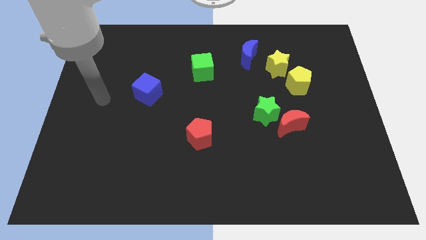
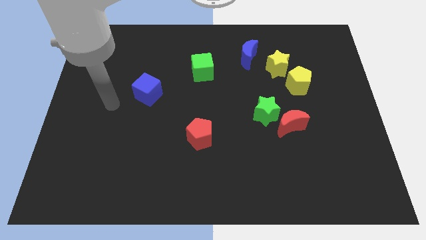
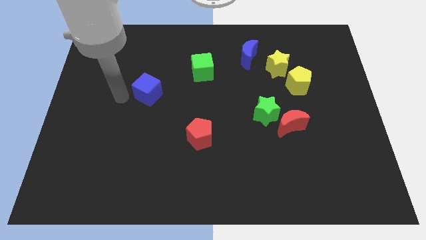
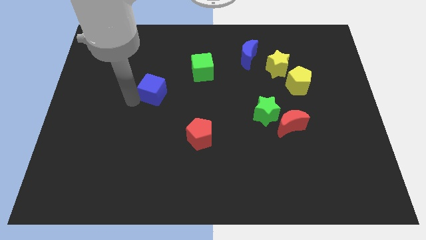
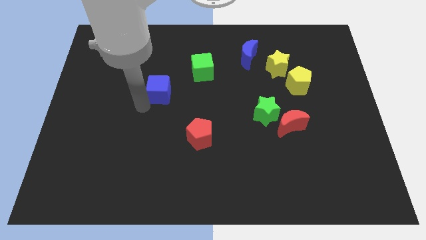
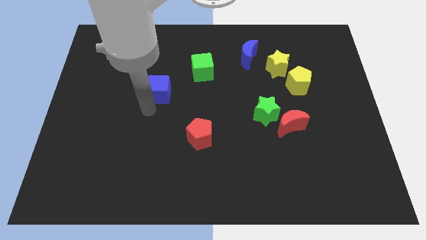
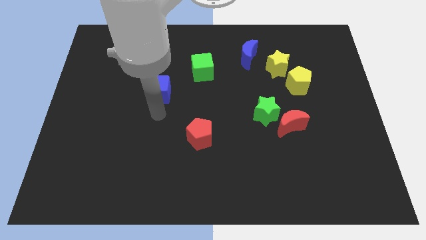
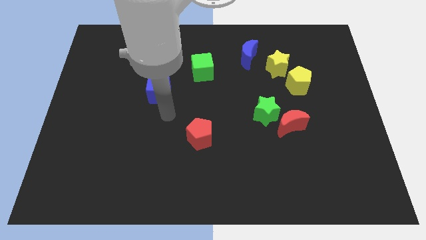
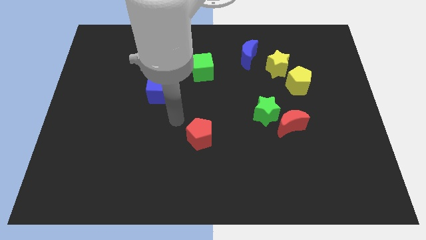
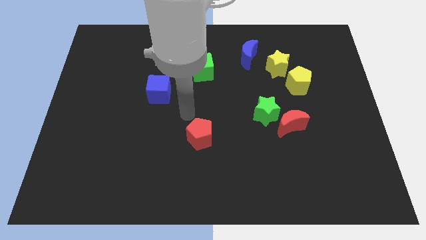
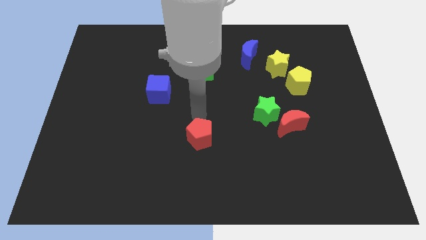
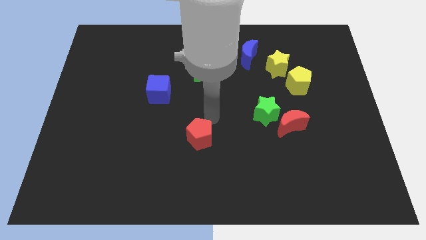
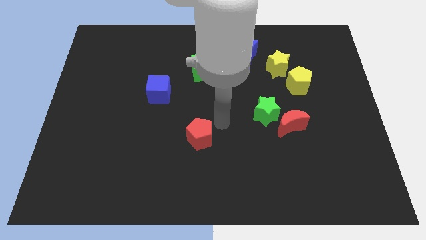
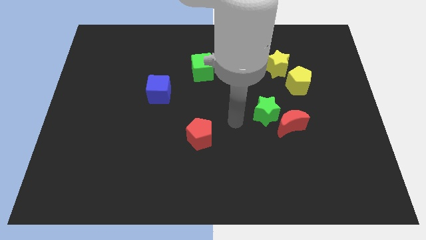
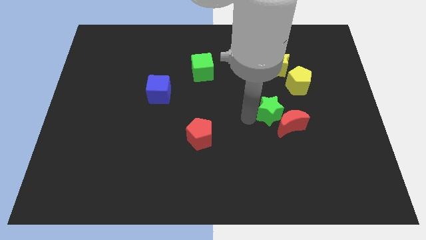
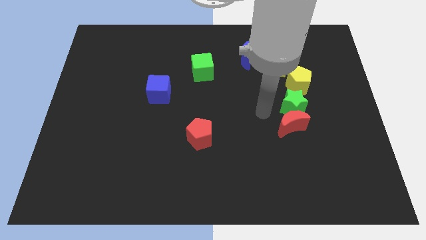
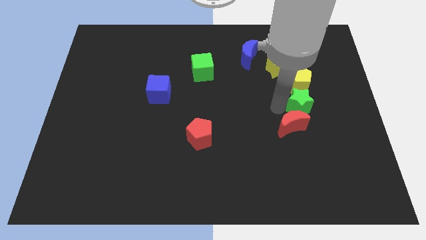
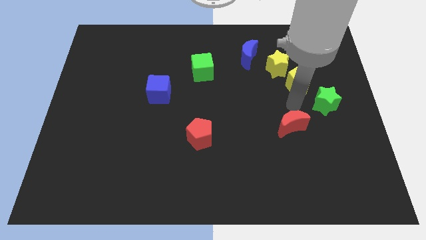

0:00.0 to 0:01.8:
separate the red moon from the green star

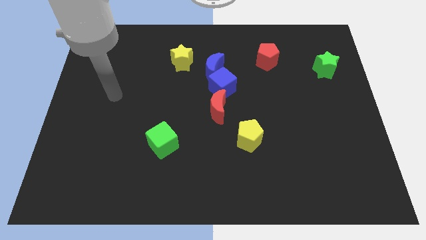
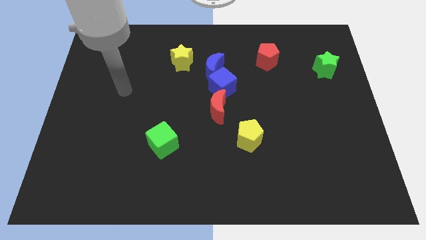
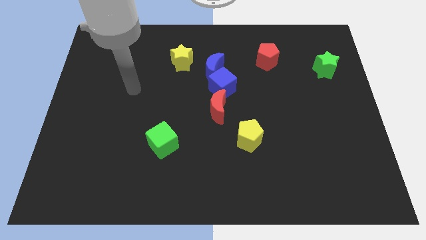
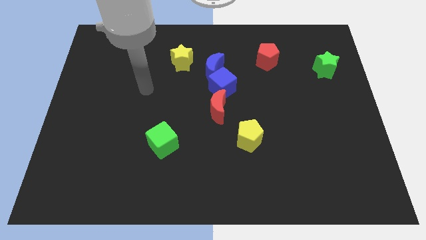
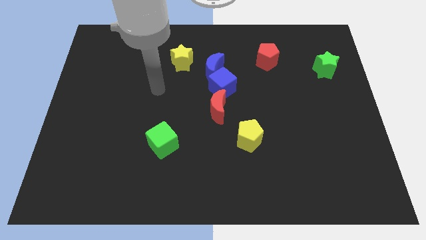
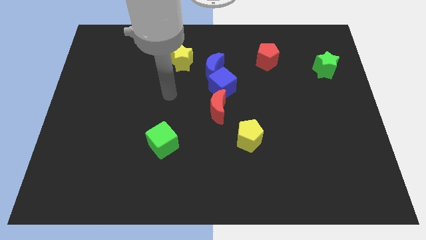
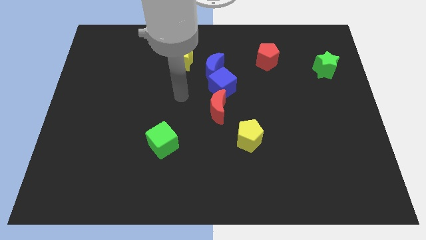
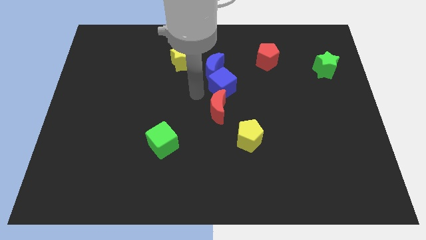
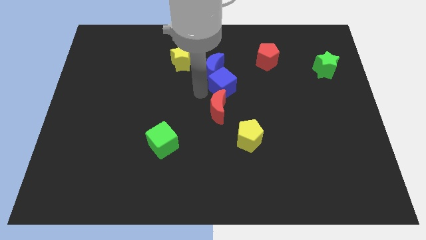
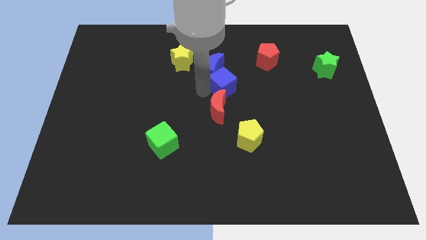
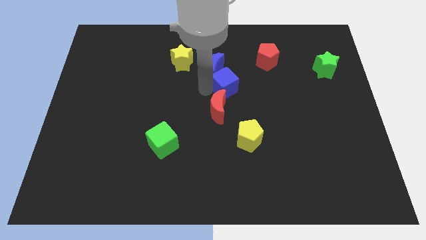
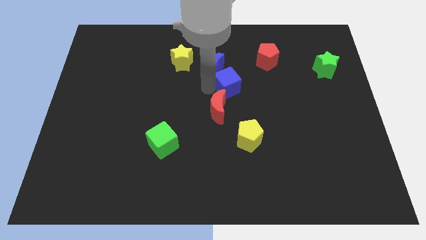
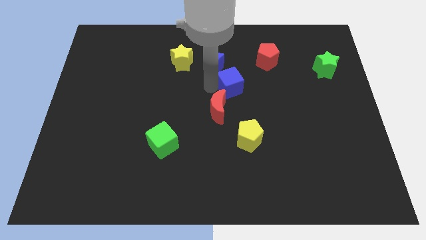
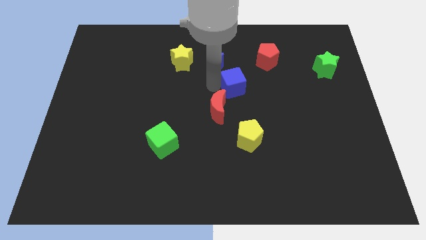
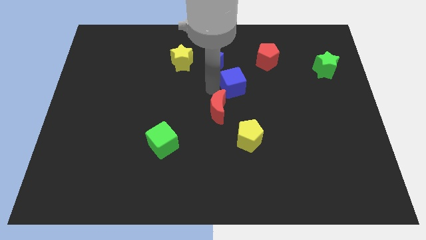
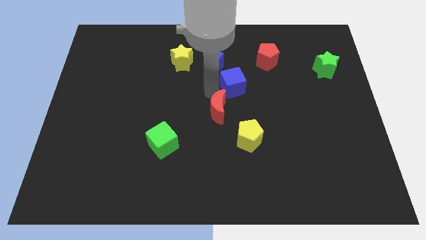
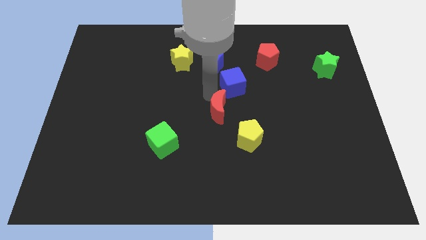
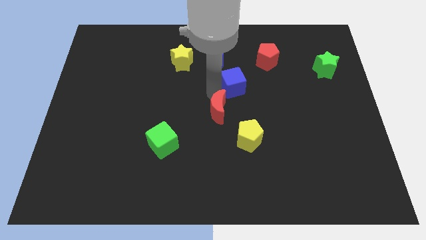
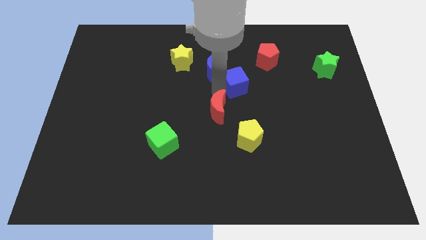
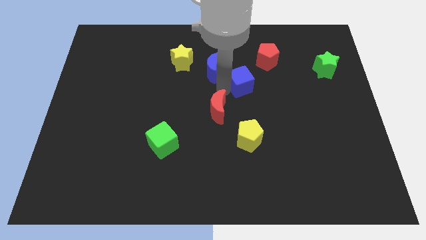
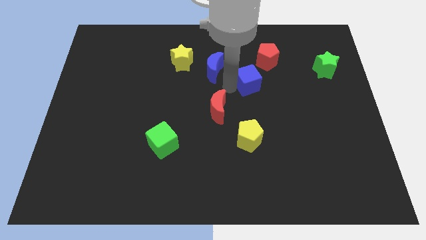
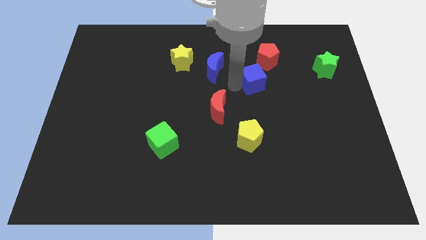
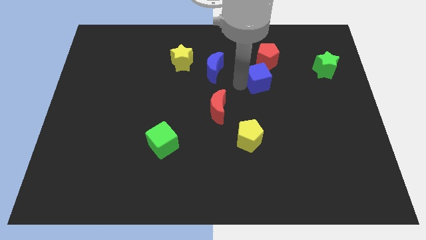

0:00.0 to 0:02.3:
move the blue cube away from the blue moon and red moon

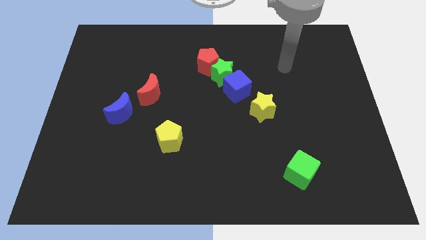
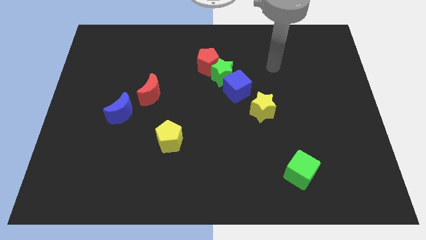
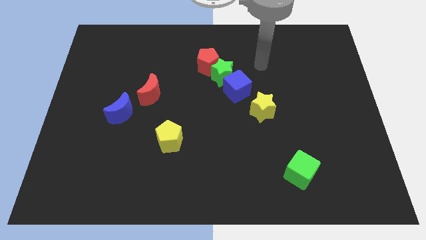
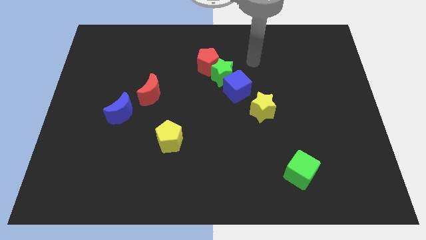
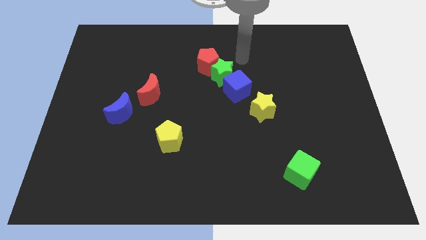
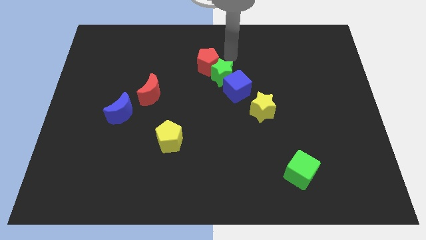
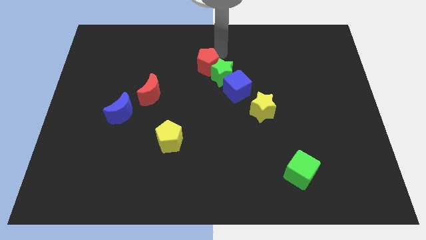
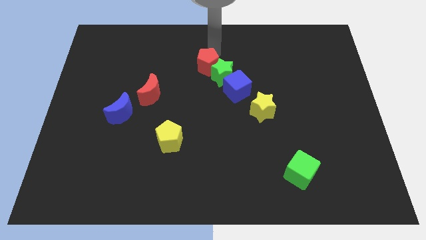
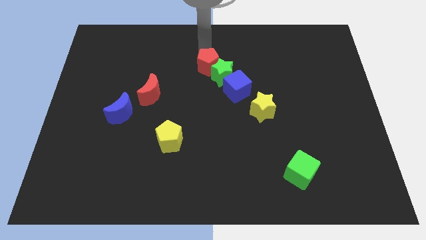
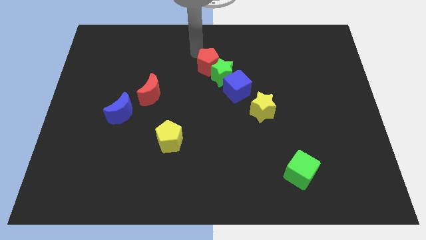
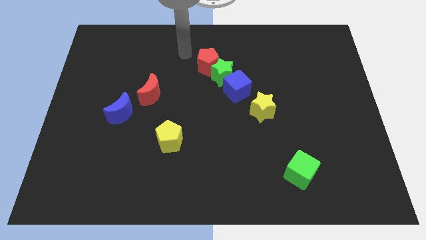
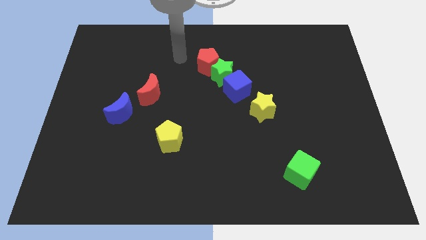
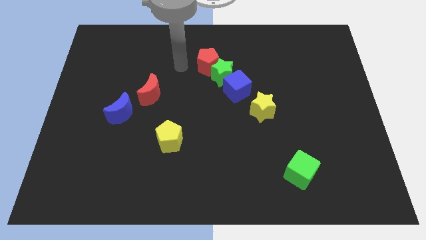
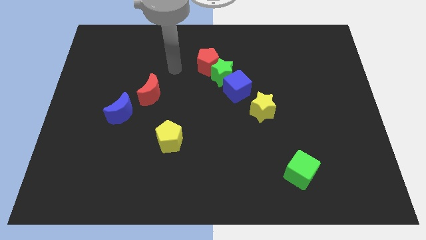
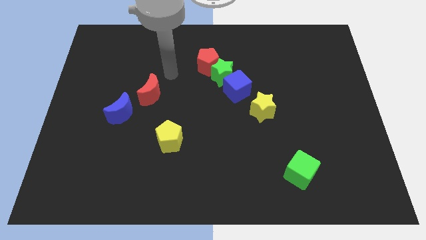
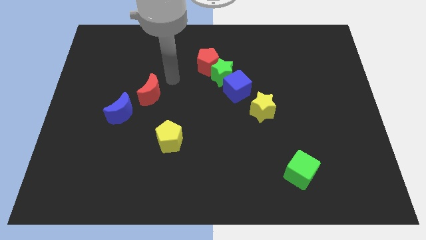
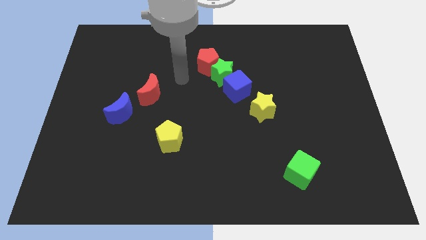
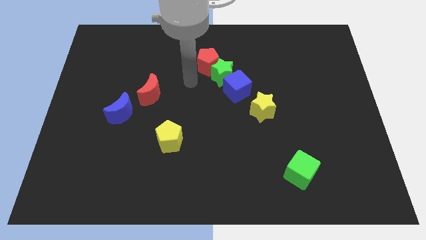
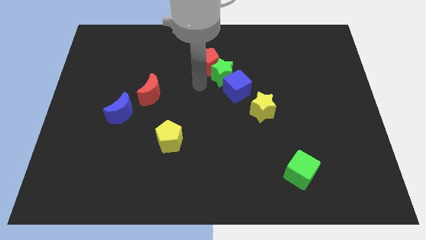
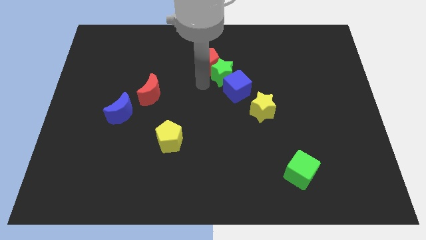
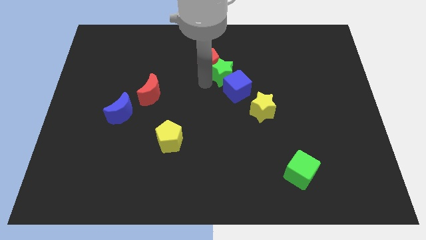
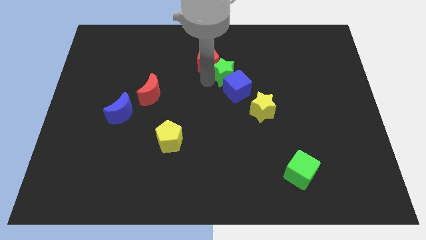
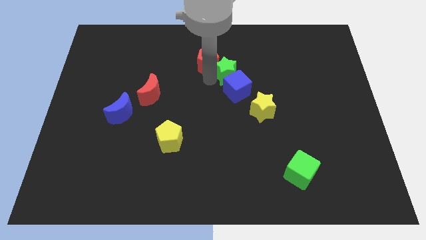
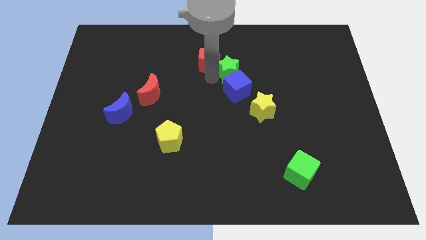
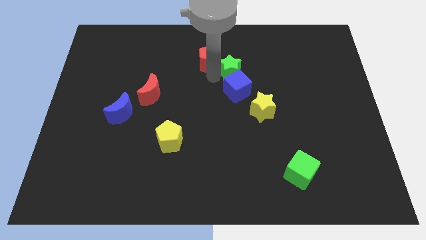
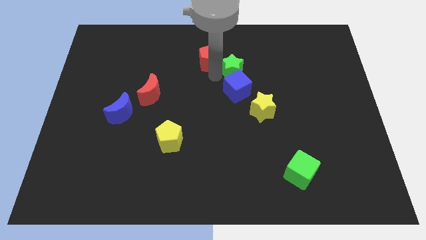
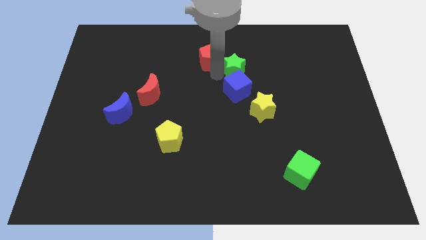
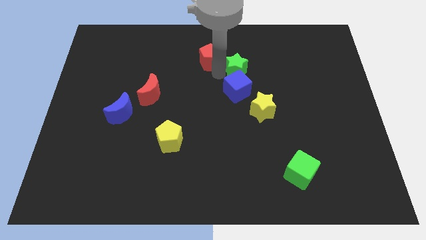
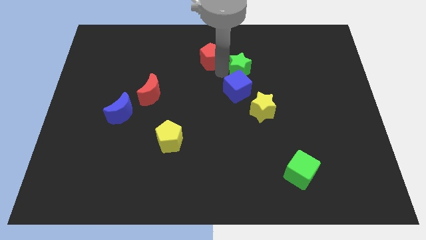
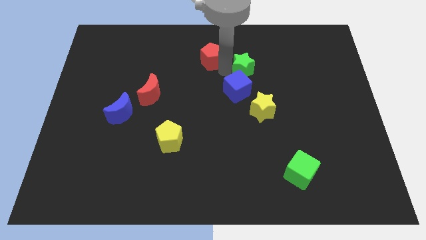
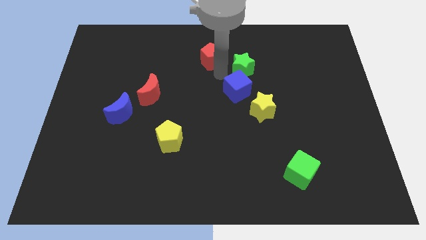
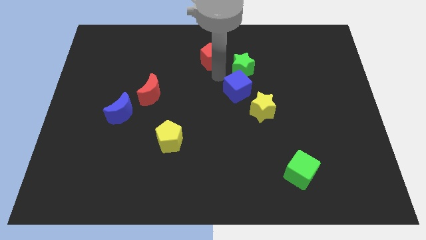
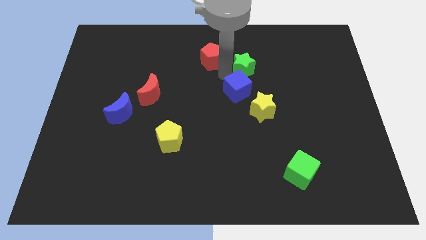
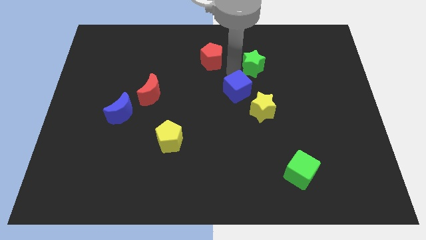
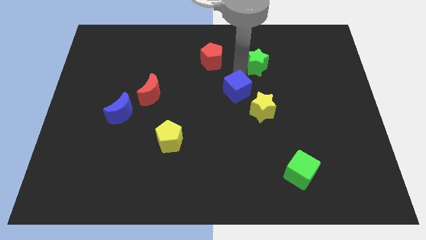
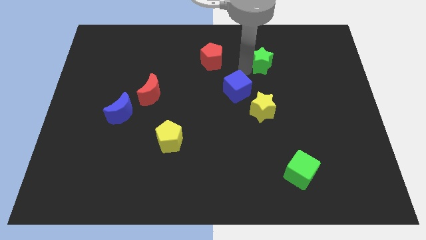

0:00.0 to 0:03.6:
move the green star away from the blue cube and red pentagon

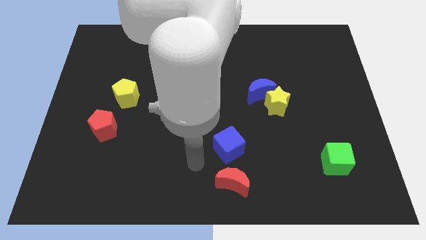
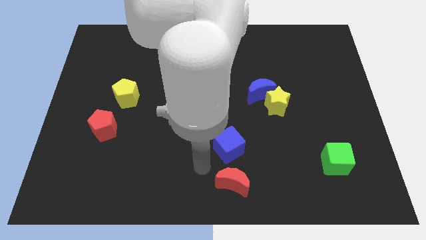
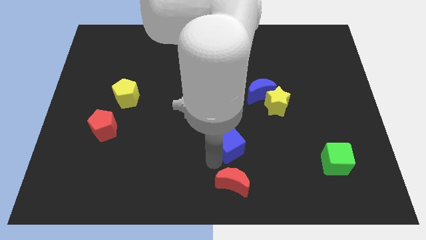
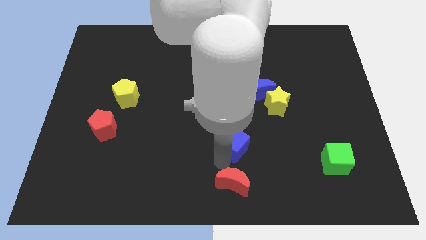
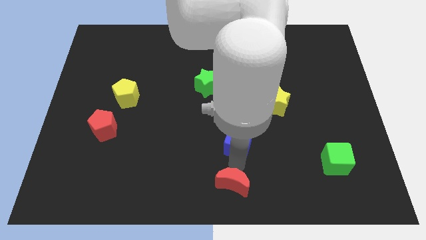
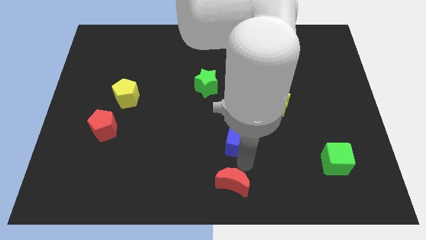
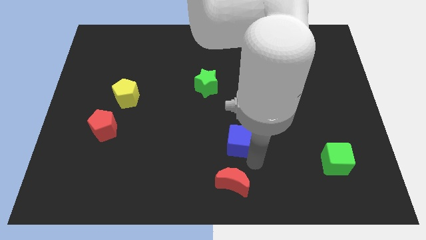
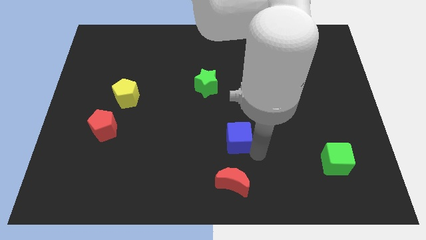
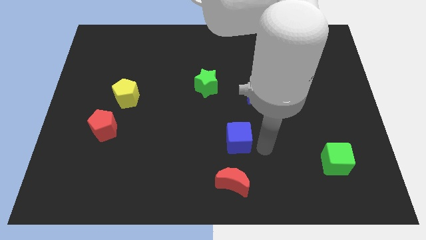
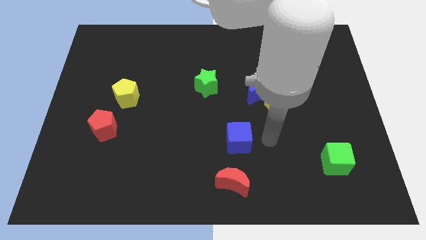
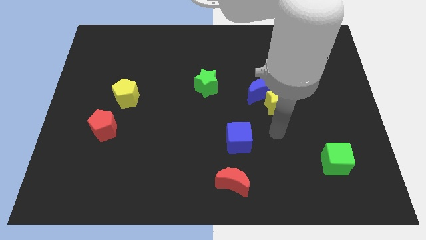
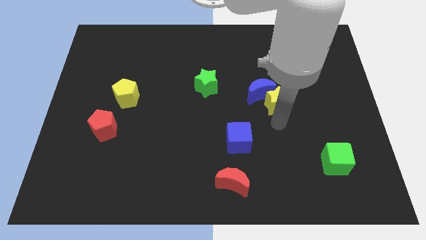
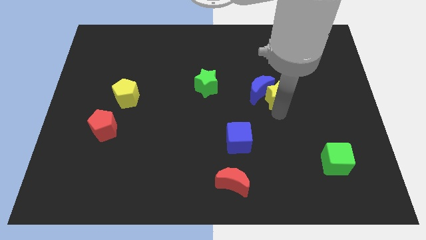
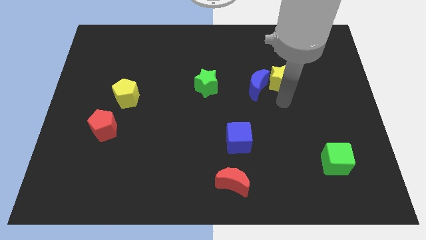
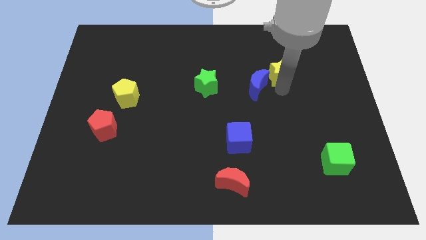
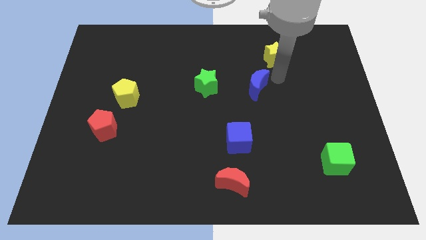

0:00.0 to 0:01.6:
pull the blue moon apart from the yellow star
